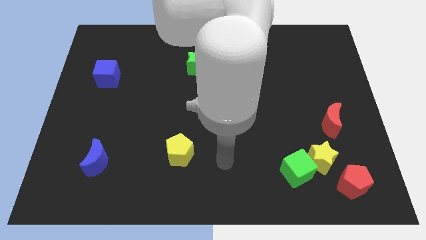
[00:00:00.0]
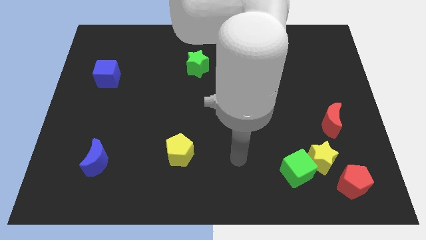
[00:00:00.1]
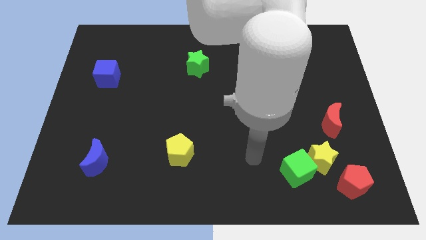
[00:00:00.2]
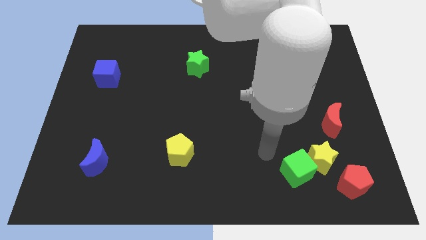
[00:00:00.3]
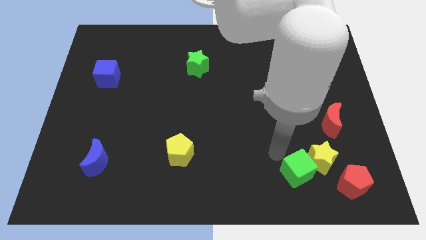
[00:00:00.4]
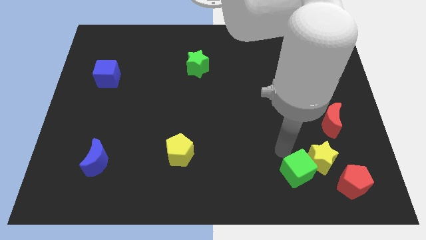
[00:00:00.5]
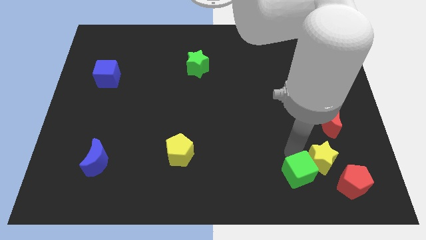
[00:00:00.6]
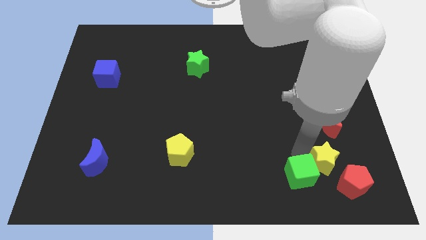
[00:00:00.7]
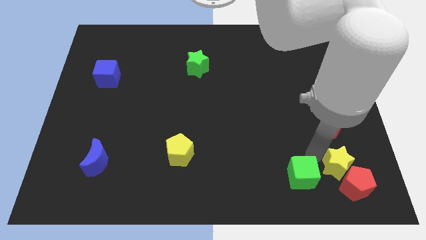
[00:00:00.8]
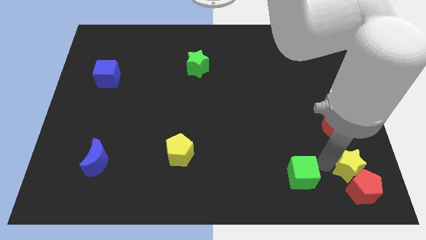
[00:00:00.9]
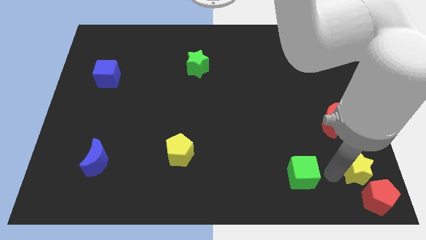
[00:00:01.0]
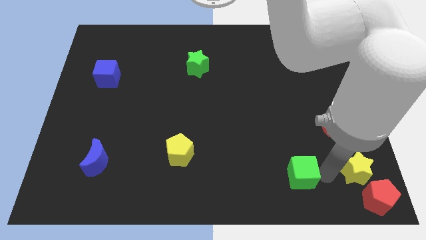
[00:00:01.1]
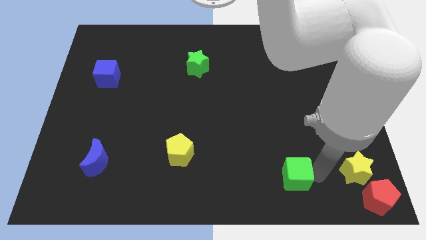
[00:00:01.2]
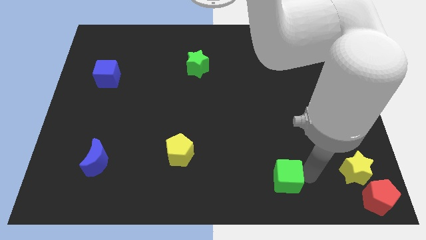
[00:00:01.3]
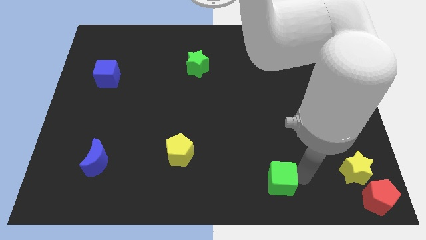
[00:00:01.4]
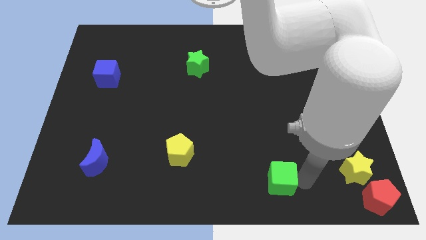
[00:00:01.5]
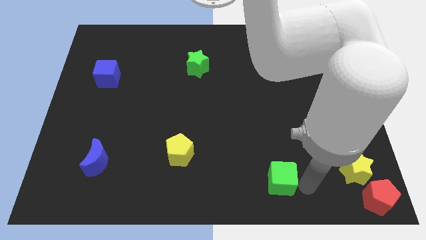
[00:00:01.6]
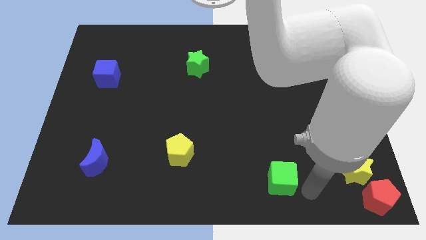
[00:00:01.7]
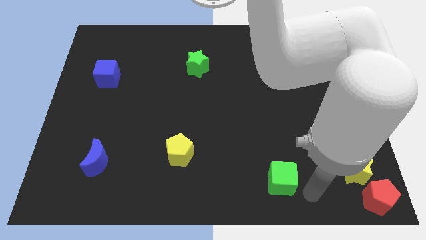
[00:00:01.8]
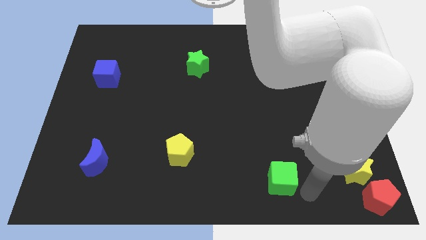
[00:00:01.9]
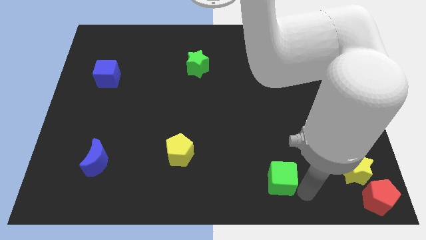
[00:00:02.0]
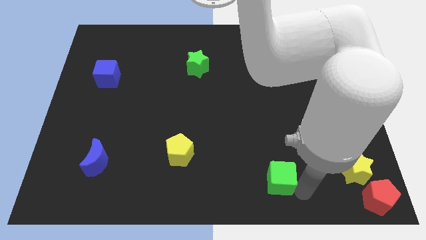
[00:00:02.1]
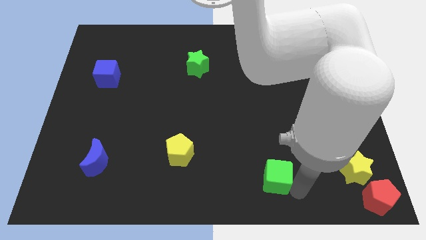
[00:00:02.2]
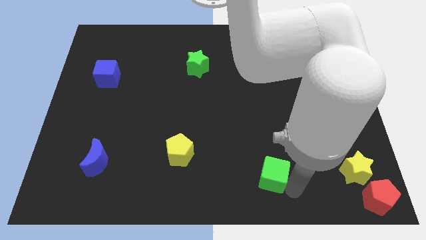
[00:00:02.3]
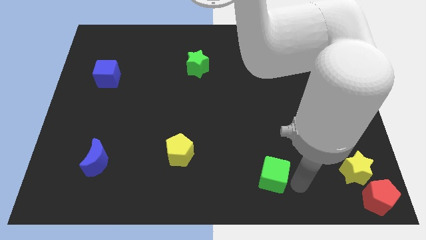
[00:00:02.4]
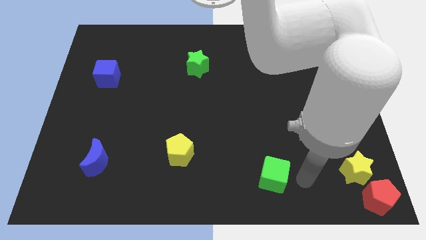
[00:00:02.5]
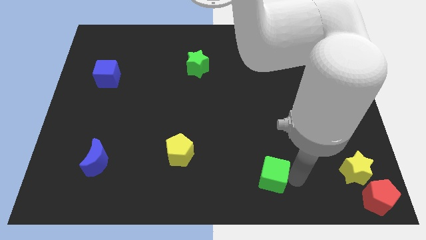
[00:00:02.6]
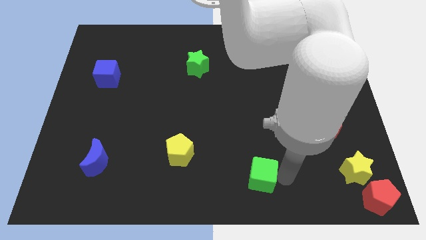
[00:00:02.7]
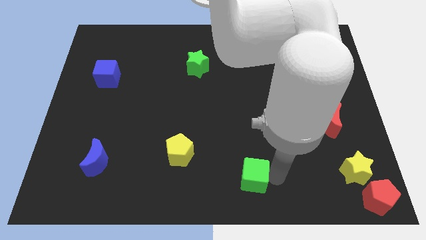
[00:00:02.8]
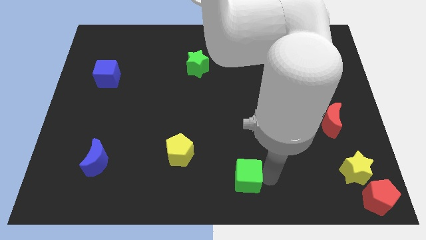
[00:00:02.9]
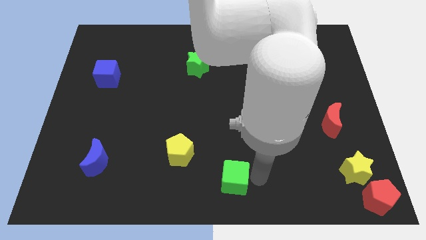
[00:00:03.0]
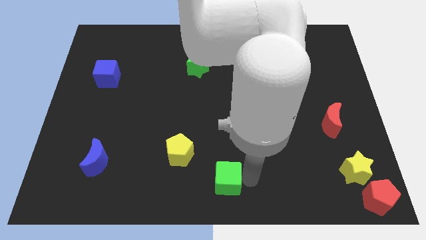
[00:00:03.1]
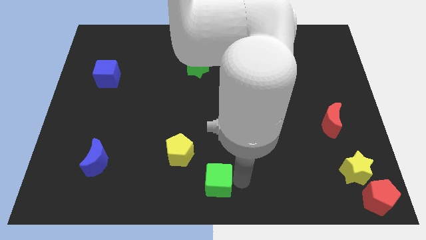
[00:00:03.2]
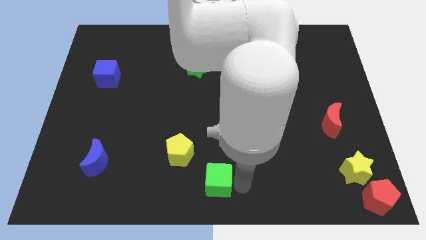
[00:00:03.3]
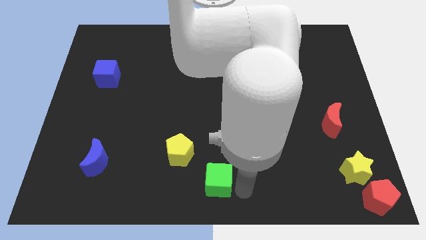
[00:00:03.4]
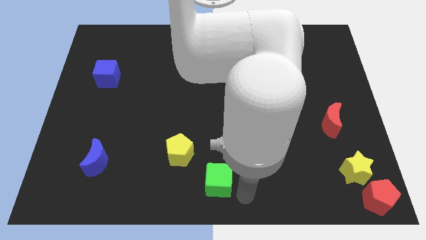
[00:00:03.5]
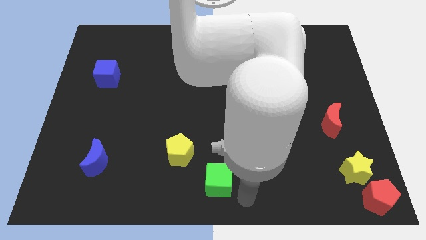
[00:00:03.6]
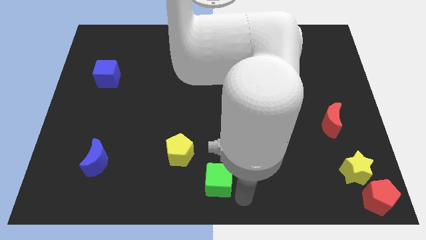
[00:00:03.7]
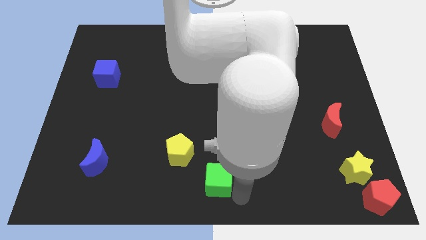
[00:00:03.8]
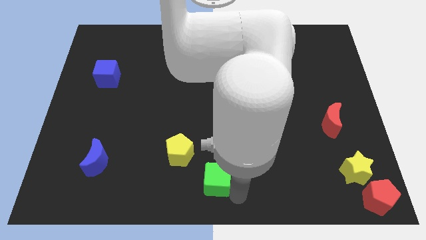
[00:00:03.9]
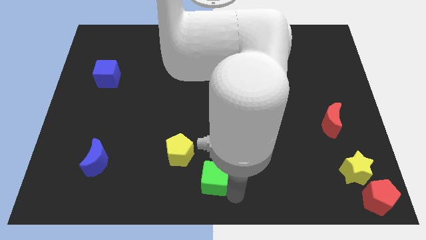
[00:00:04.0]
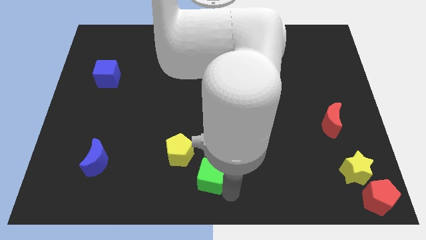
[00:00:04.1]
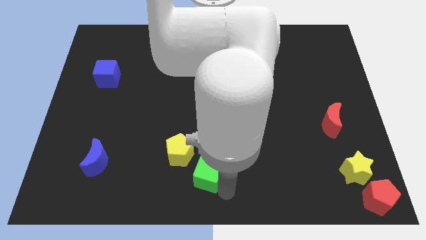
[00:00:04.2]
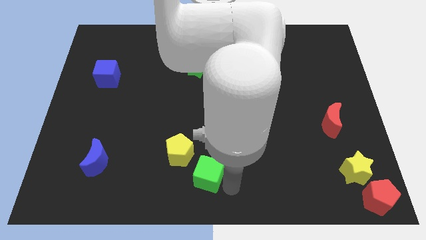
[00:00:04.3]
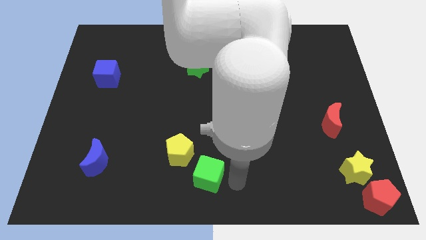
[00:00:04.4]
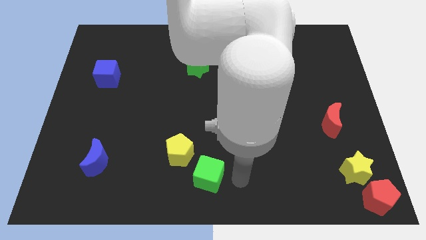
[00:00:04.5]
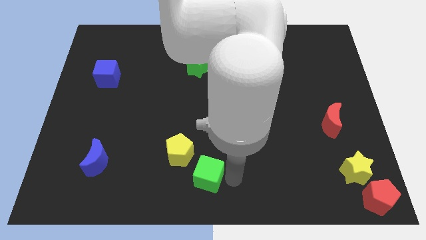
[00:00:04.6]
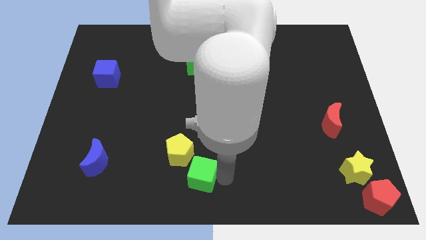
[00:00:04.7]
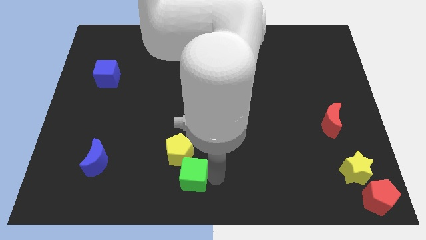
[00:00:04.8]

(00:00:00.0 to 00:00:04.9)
move the green cube to the left

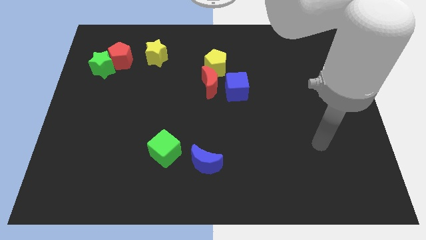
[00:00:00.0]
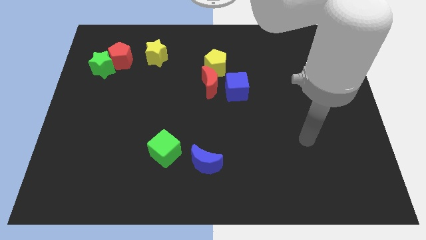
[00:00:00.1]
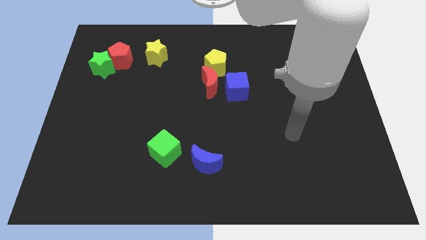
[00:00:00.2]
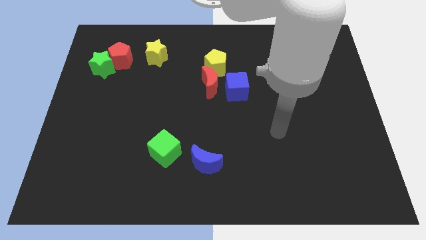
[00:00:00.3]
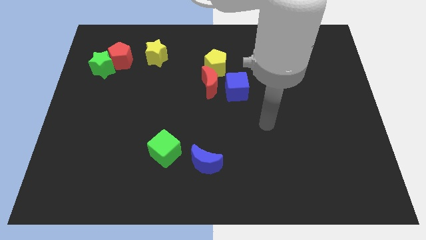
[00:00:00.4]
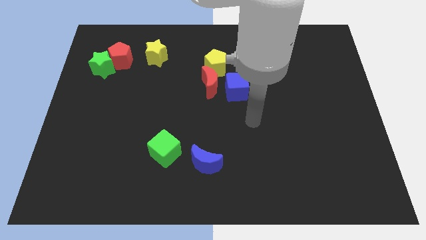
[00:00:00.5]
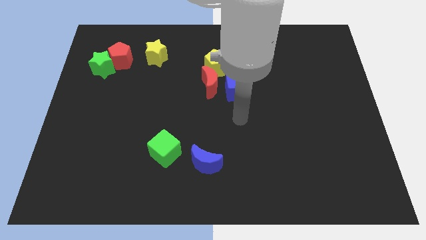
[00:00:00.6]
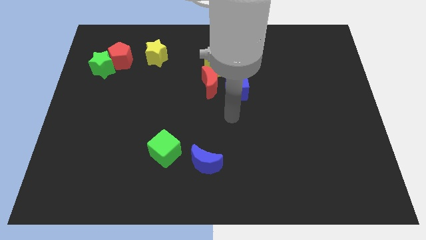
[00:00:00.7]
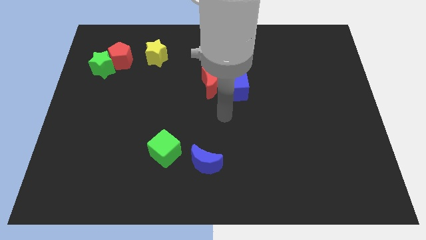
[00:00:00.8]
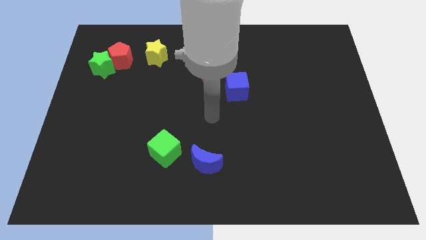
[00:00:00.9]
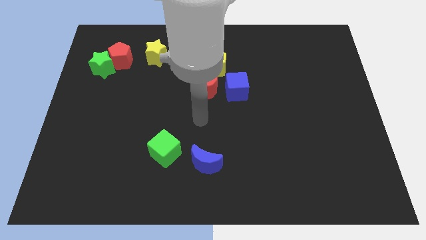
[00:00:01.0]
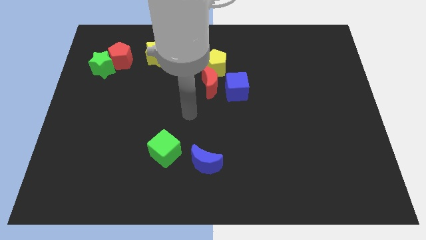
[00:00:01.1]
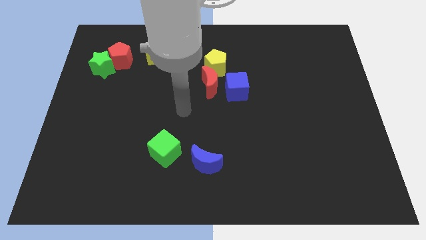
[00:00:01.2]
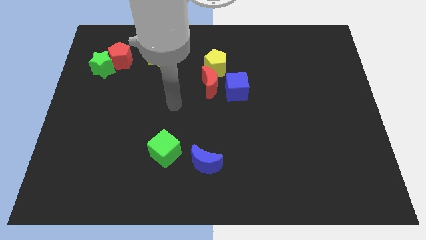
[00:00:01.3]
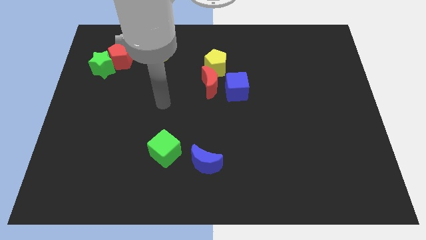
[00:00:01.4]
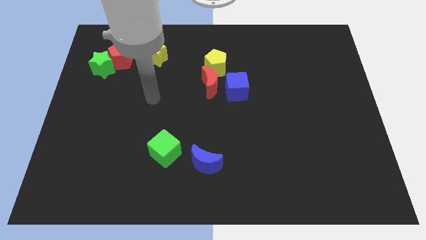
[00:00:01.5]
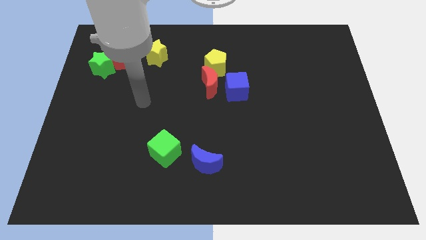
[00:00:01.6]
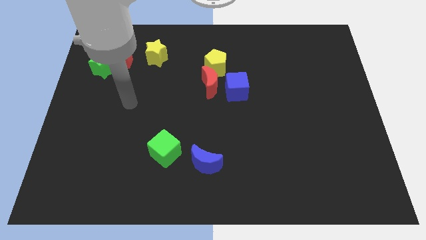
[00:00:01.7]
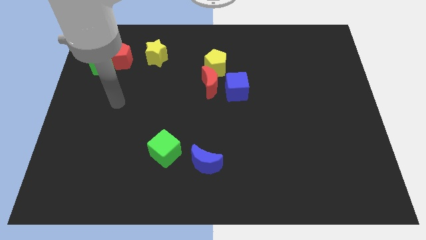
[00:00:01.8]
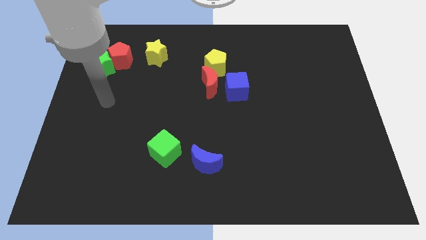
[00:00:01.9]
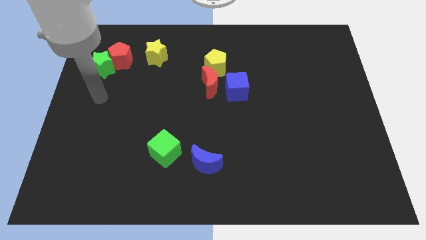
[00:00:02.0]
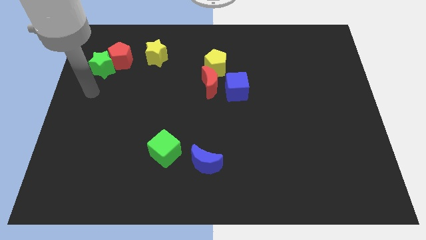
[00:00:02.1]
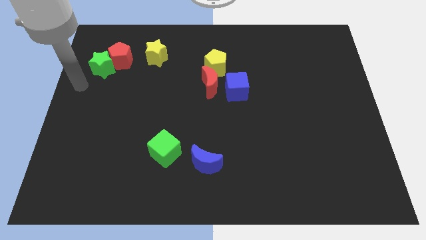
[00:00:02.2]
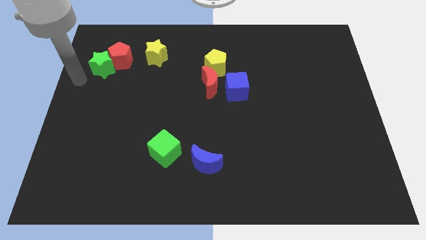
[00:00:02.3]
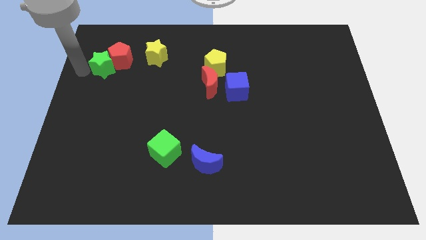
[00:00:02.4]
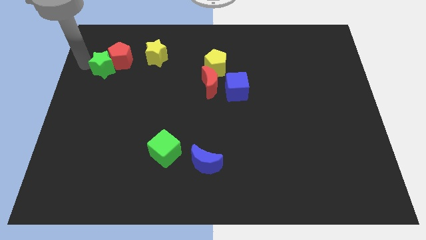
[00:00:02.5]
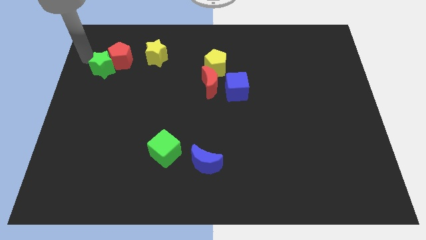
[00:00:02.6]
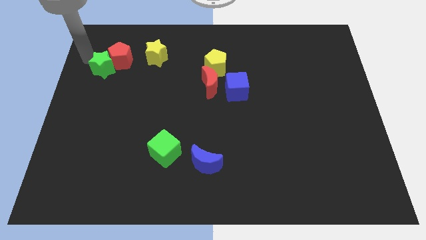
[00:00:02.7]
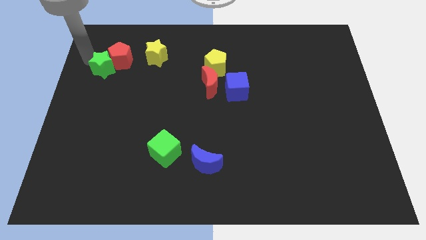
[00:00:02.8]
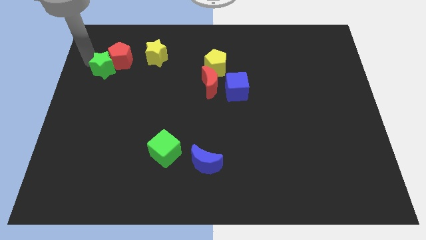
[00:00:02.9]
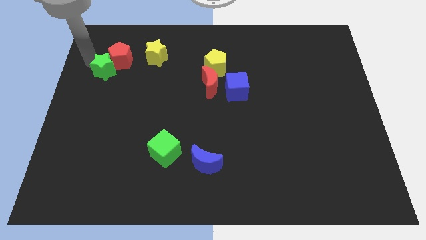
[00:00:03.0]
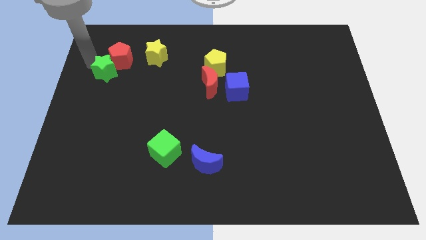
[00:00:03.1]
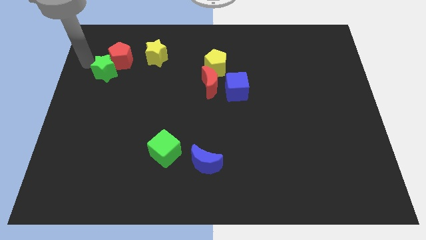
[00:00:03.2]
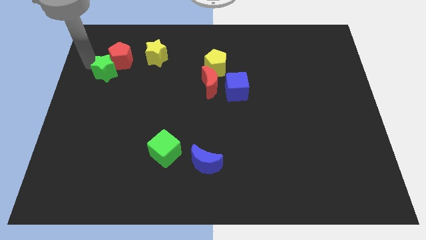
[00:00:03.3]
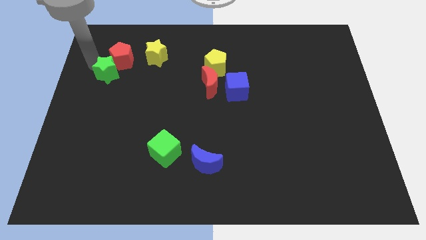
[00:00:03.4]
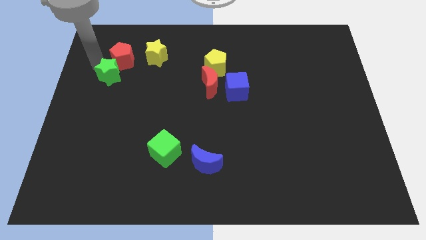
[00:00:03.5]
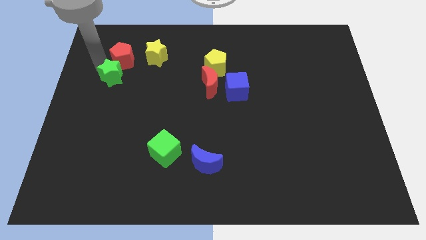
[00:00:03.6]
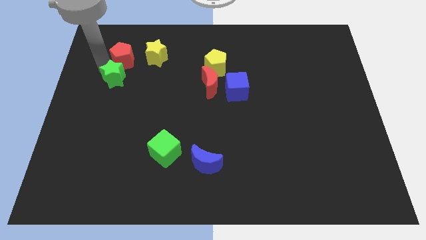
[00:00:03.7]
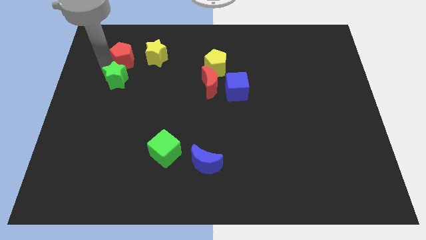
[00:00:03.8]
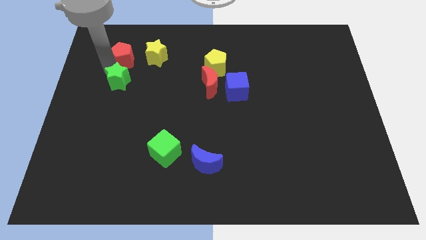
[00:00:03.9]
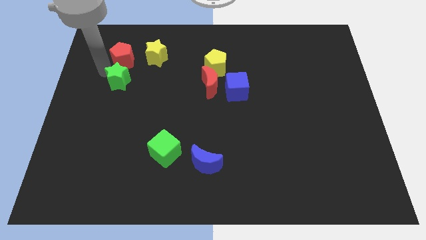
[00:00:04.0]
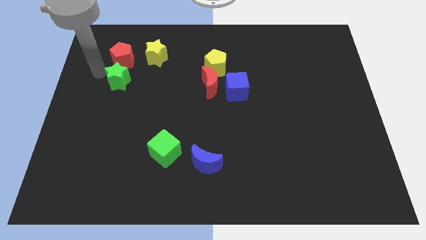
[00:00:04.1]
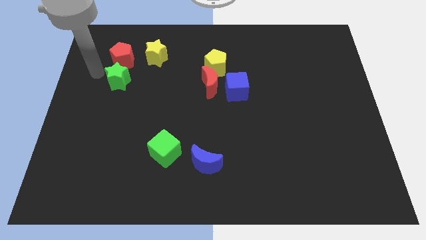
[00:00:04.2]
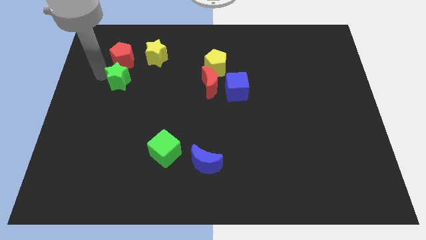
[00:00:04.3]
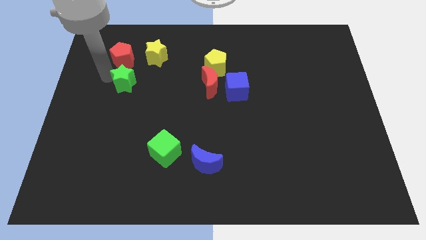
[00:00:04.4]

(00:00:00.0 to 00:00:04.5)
move the green star a little bit downwards and to the right
